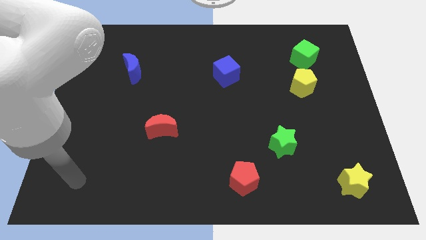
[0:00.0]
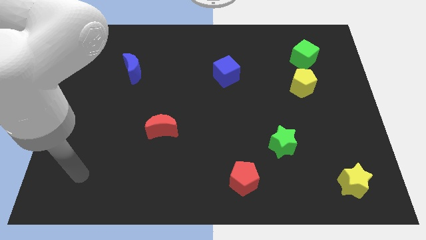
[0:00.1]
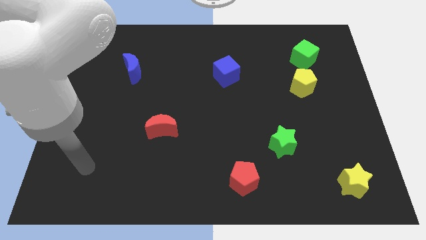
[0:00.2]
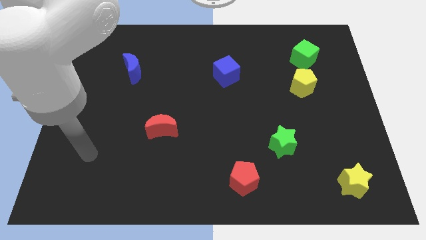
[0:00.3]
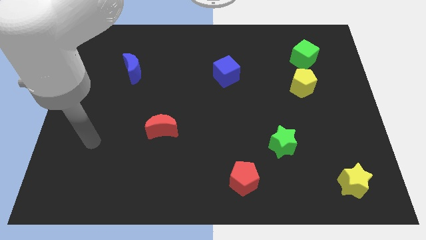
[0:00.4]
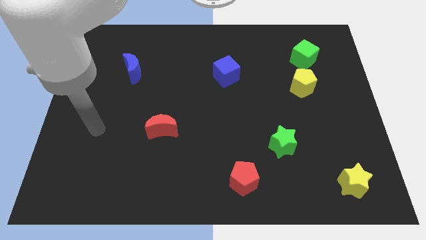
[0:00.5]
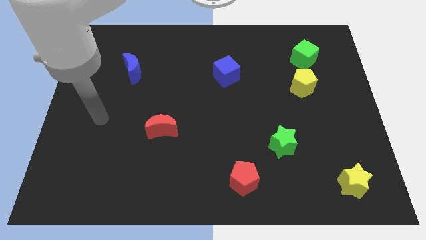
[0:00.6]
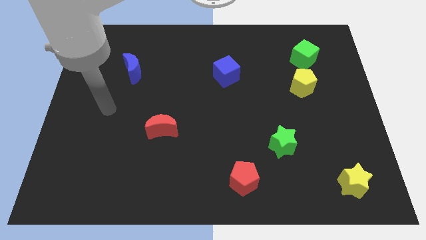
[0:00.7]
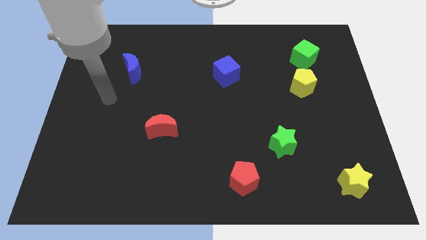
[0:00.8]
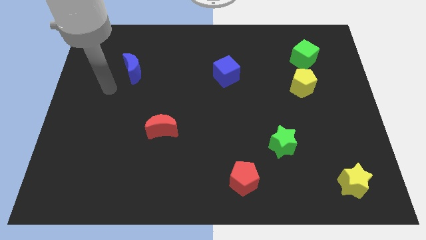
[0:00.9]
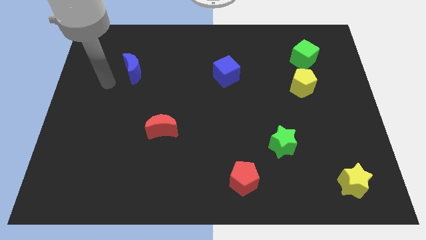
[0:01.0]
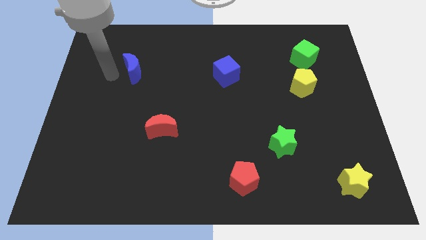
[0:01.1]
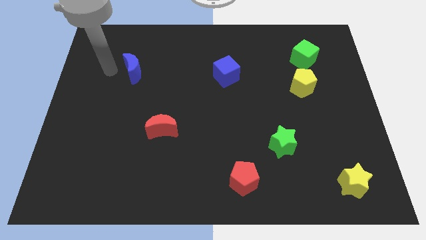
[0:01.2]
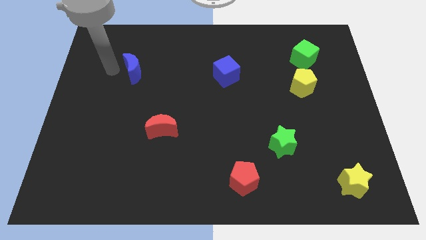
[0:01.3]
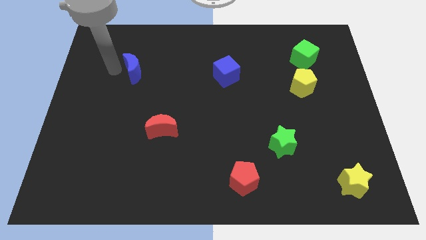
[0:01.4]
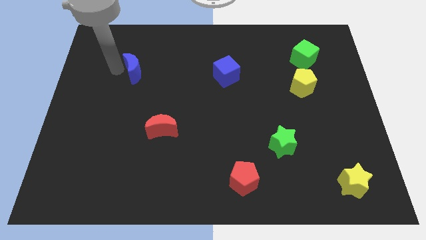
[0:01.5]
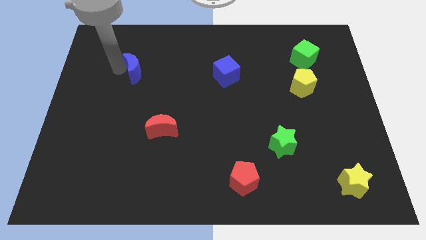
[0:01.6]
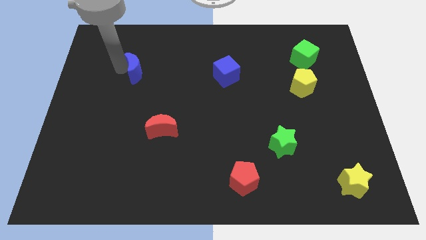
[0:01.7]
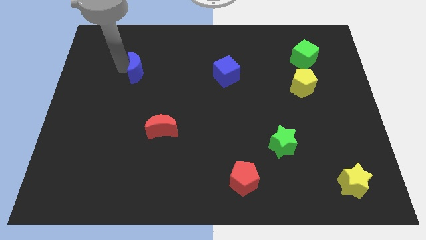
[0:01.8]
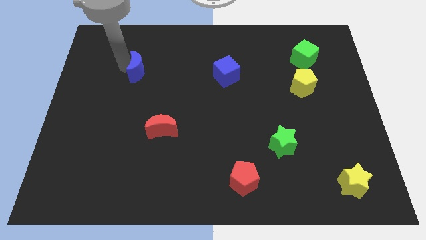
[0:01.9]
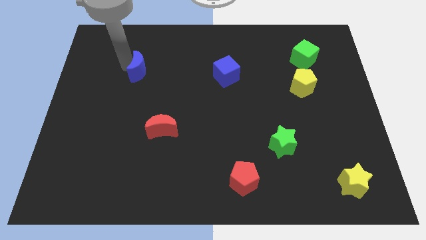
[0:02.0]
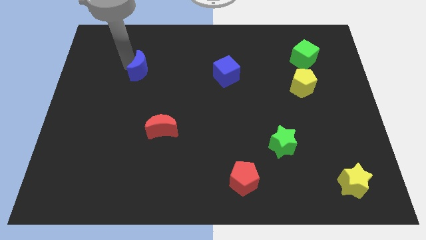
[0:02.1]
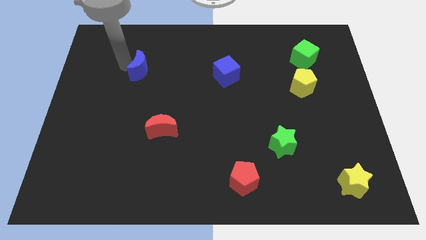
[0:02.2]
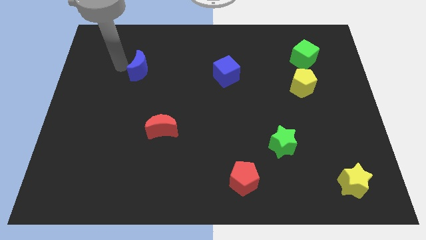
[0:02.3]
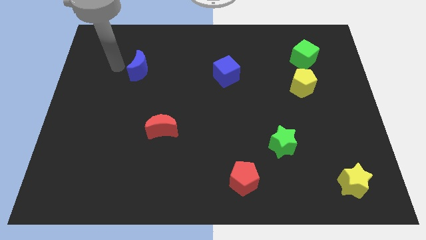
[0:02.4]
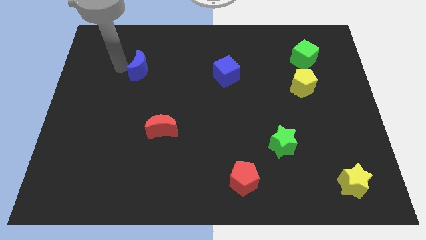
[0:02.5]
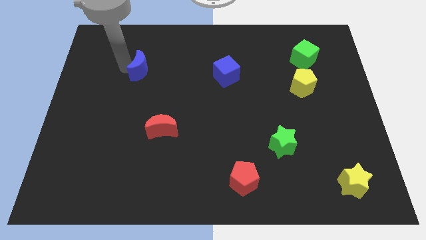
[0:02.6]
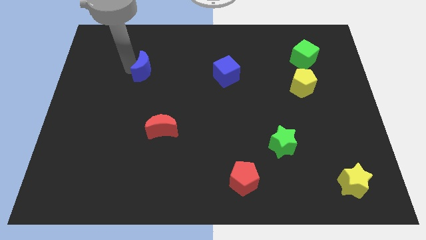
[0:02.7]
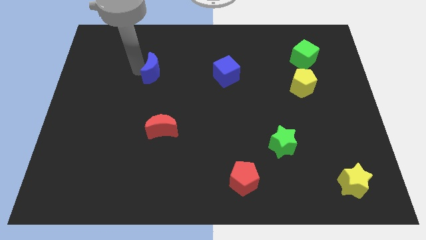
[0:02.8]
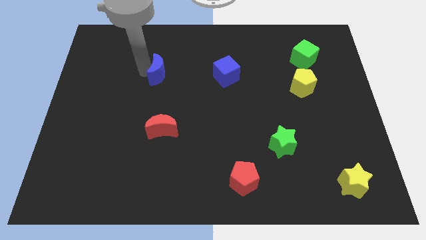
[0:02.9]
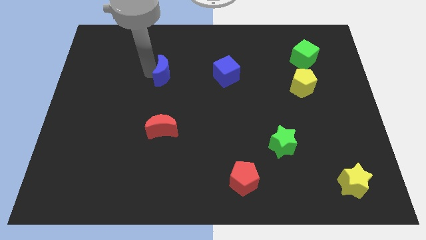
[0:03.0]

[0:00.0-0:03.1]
push the blue moon to the right a little bit

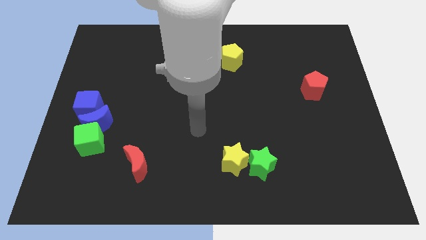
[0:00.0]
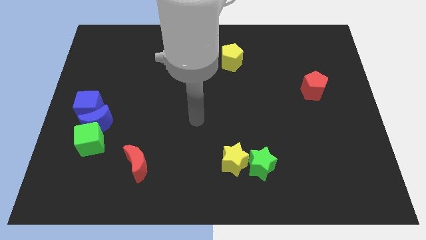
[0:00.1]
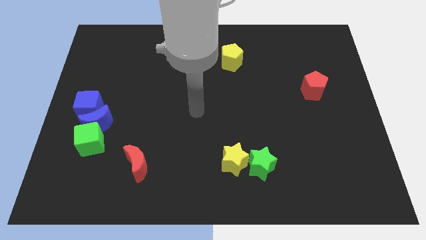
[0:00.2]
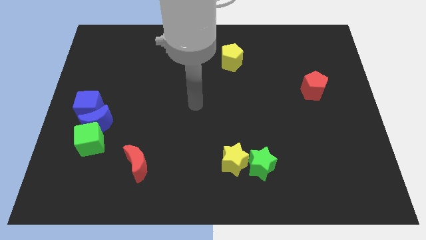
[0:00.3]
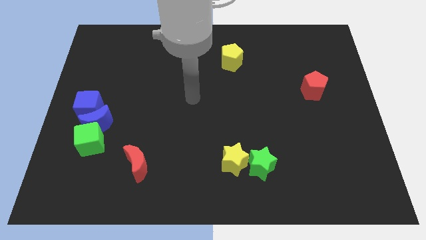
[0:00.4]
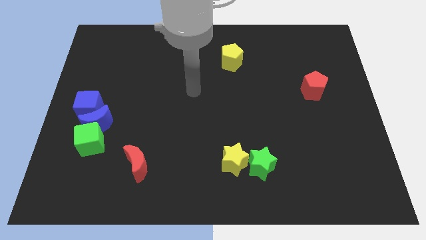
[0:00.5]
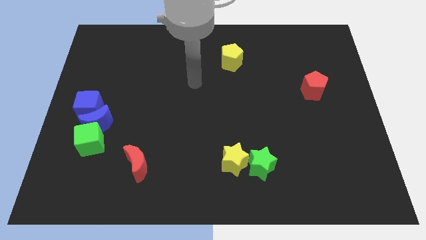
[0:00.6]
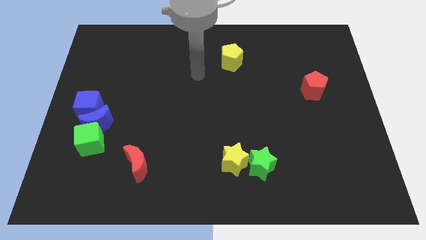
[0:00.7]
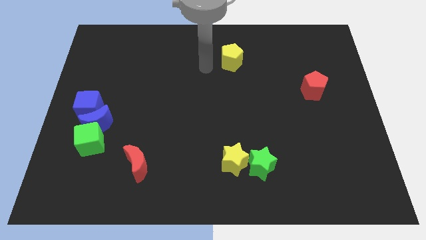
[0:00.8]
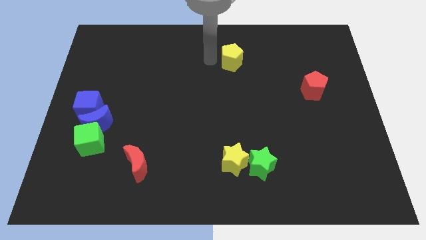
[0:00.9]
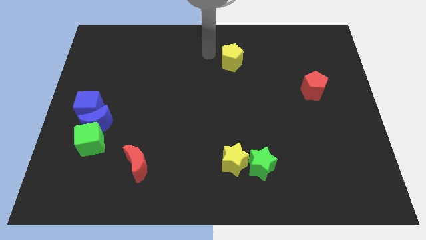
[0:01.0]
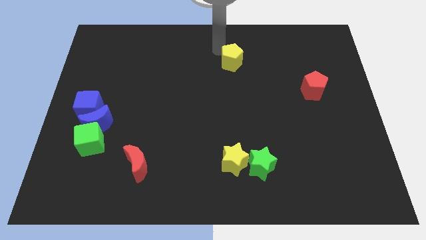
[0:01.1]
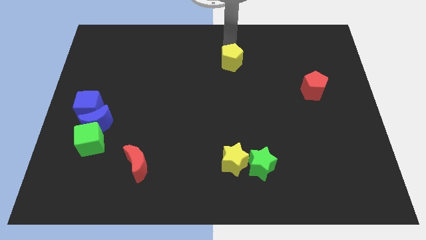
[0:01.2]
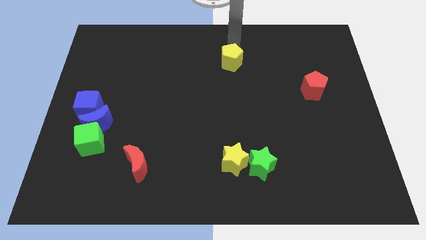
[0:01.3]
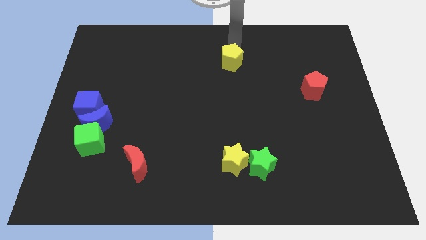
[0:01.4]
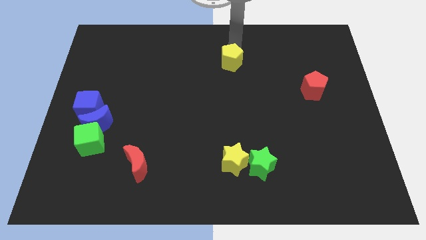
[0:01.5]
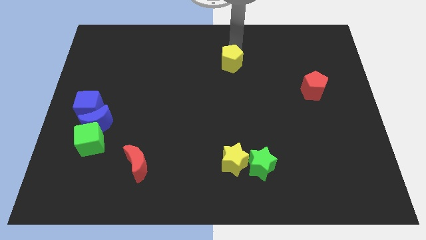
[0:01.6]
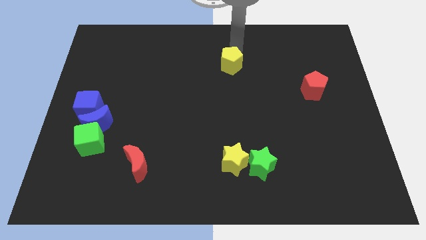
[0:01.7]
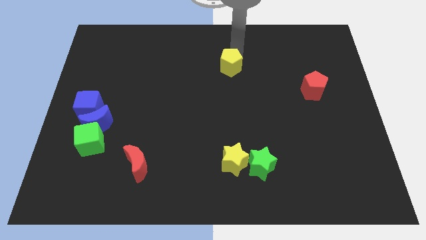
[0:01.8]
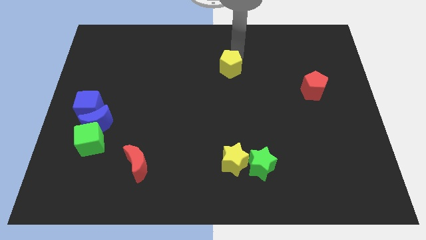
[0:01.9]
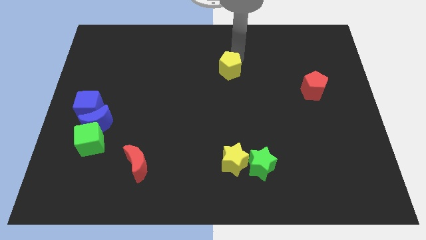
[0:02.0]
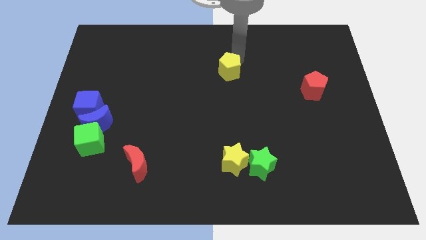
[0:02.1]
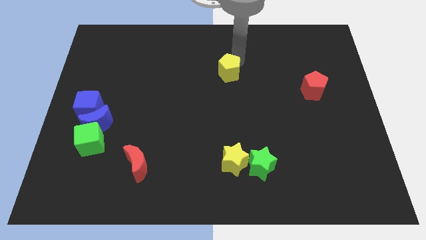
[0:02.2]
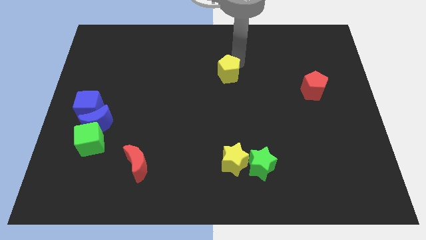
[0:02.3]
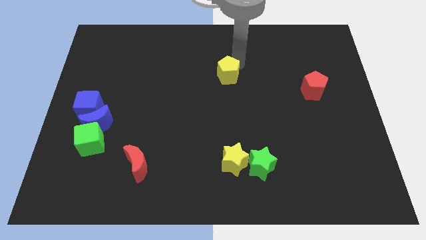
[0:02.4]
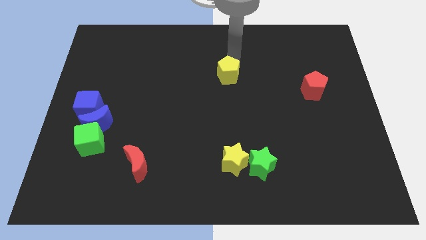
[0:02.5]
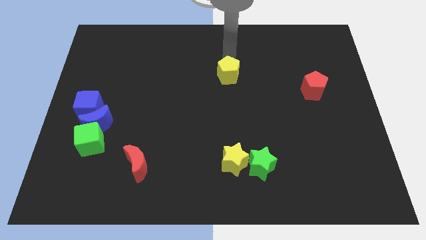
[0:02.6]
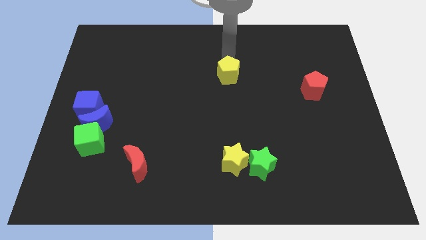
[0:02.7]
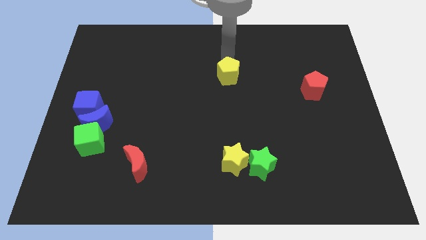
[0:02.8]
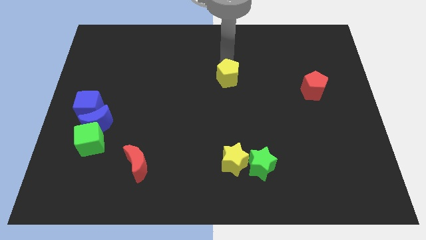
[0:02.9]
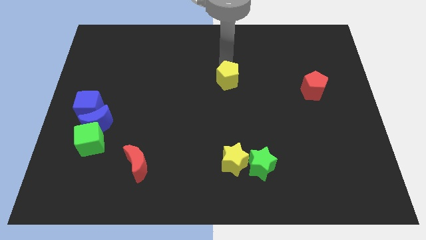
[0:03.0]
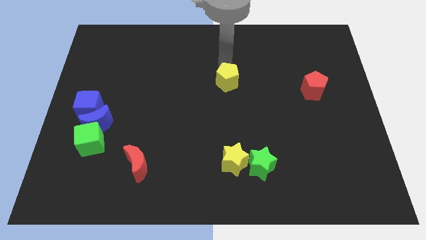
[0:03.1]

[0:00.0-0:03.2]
move the yellow pentagon a little bit down

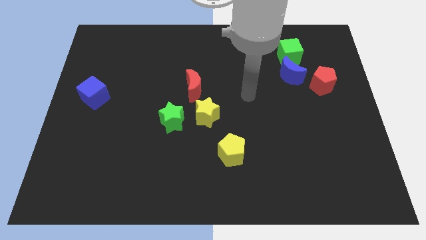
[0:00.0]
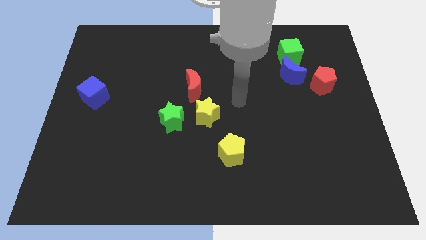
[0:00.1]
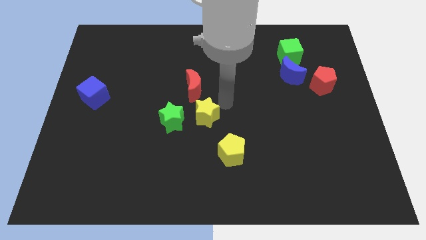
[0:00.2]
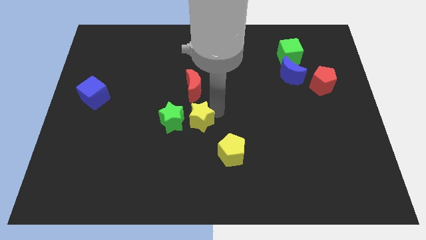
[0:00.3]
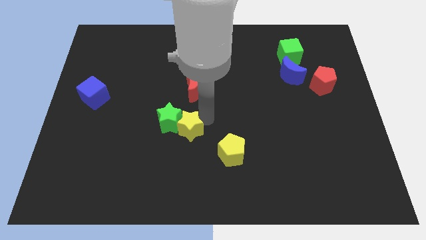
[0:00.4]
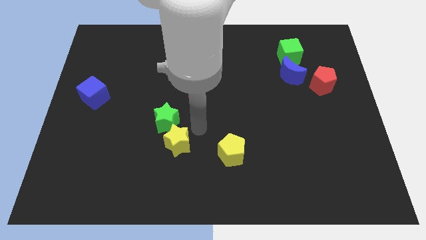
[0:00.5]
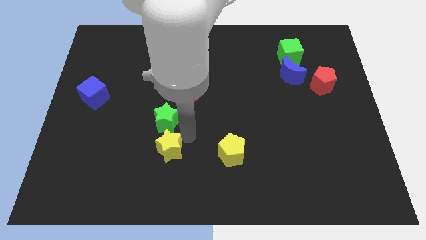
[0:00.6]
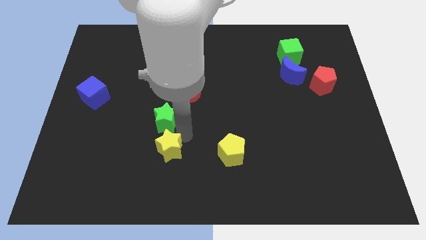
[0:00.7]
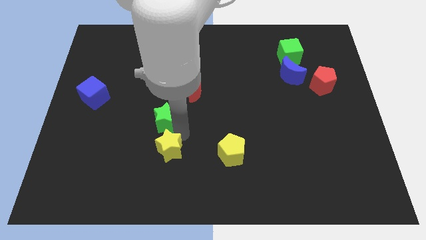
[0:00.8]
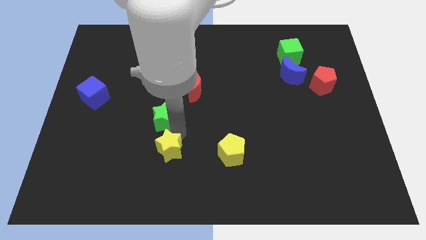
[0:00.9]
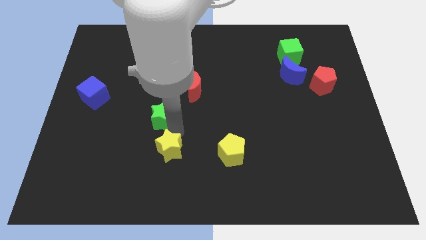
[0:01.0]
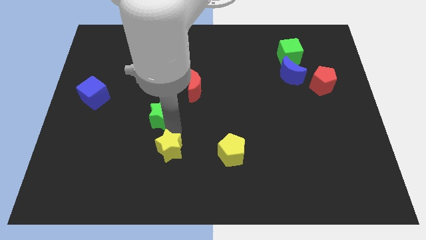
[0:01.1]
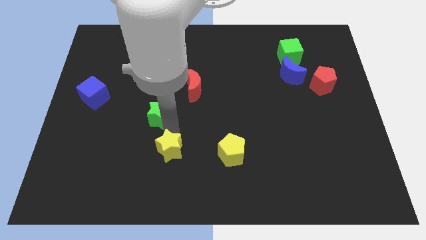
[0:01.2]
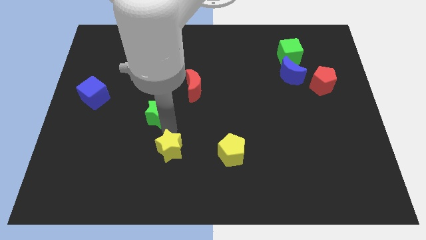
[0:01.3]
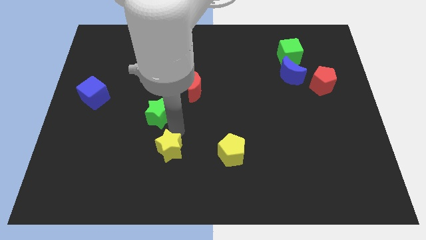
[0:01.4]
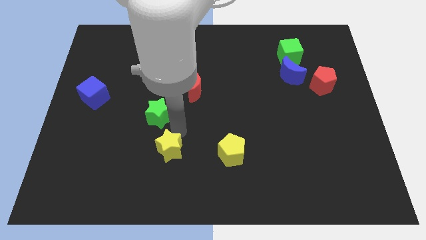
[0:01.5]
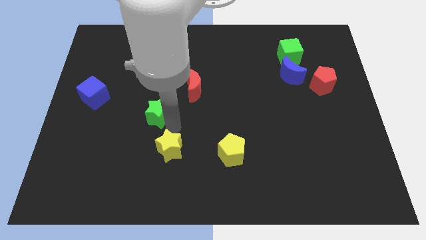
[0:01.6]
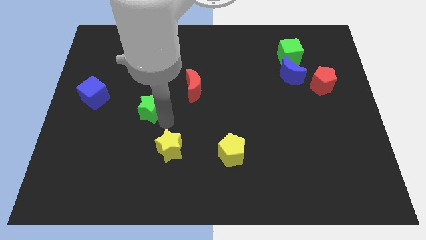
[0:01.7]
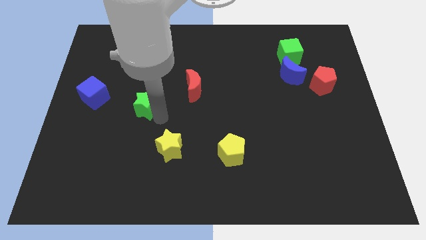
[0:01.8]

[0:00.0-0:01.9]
slightly push the green star diagonally up and left

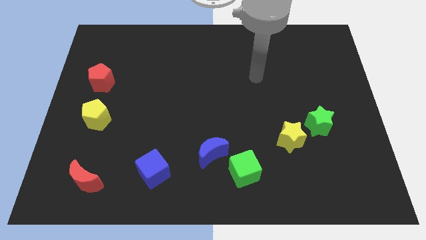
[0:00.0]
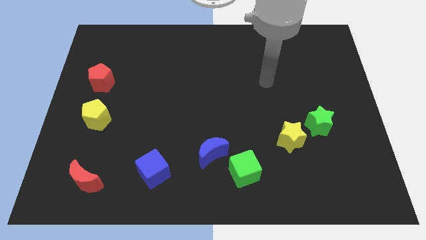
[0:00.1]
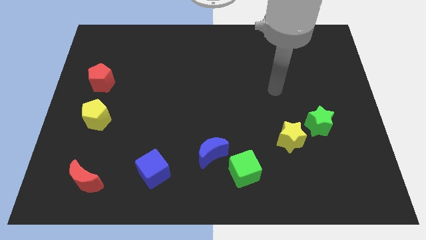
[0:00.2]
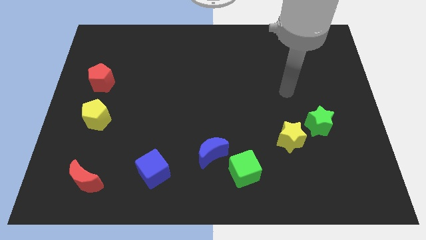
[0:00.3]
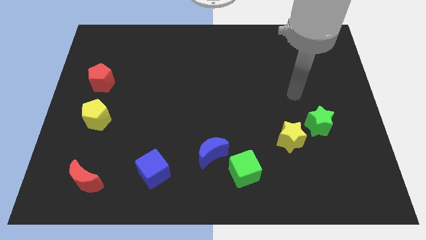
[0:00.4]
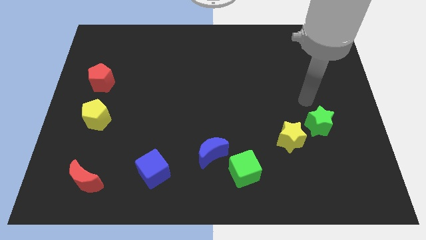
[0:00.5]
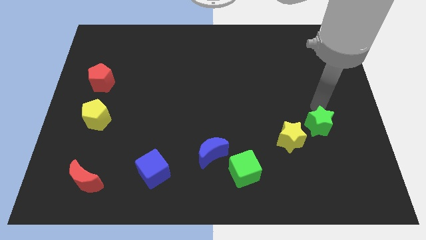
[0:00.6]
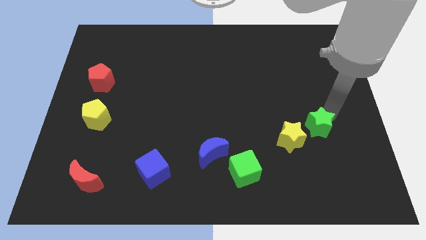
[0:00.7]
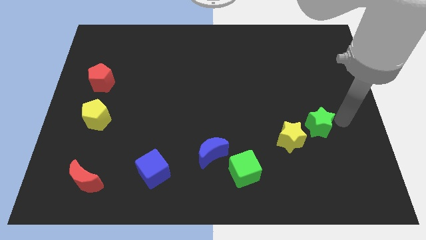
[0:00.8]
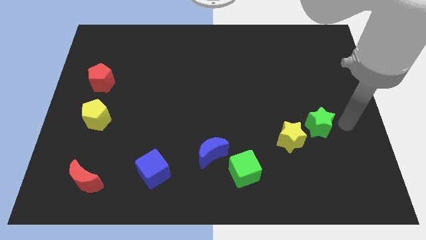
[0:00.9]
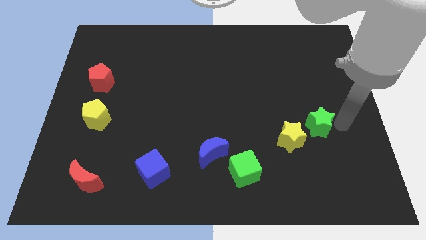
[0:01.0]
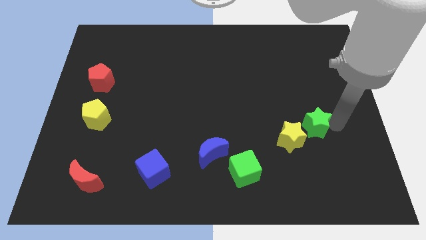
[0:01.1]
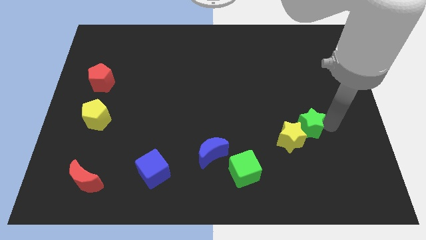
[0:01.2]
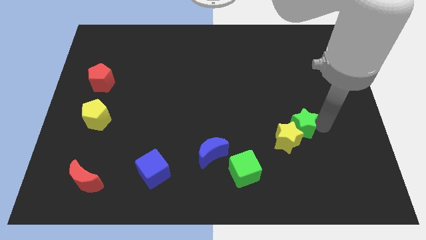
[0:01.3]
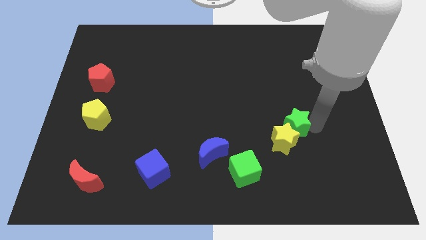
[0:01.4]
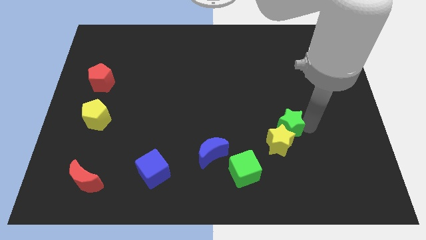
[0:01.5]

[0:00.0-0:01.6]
push the green star to the left a little
